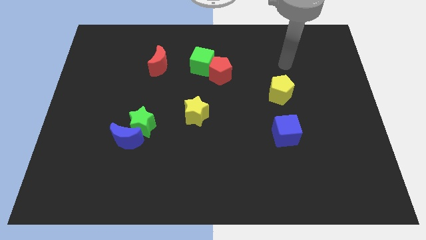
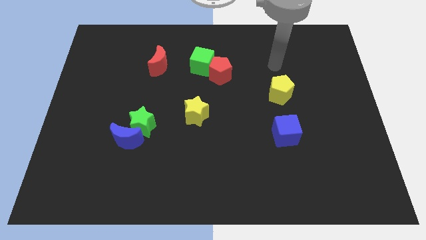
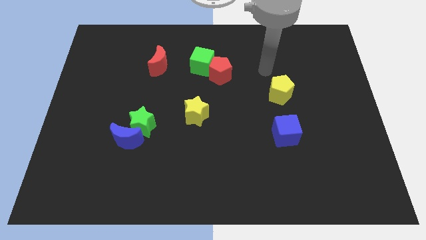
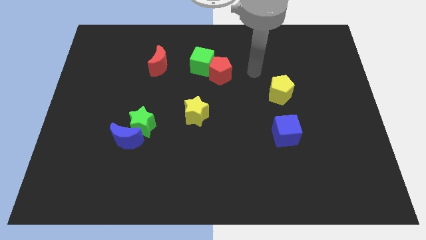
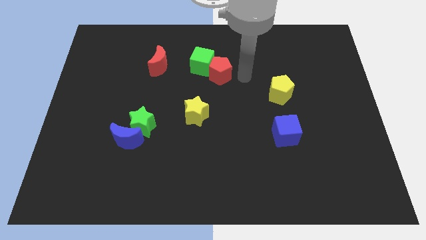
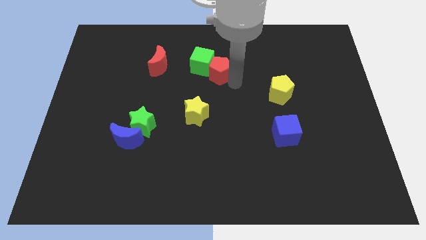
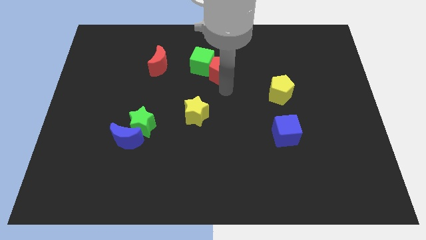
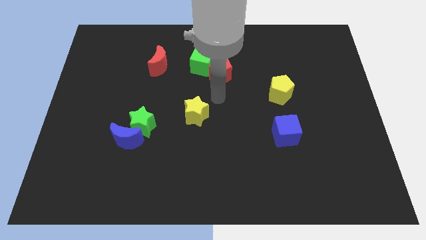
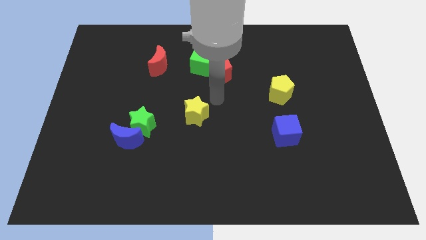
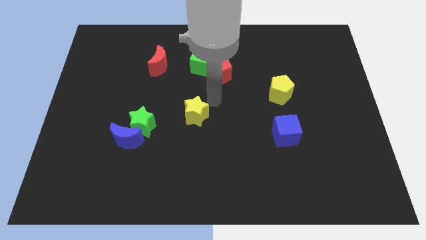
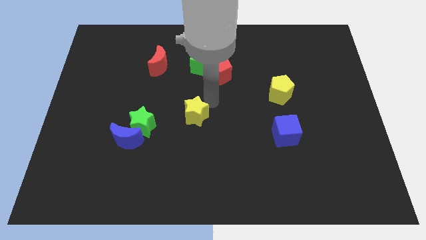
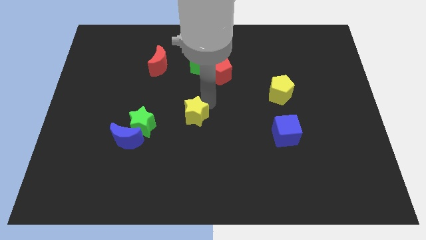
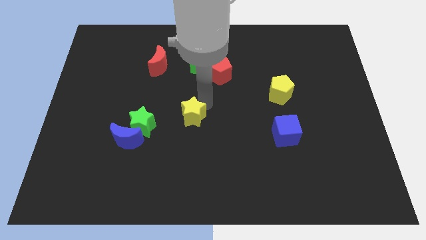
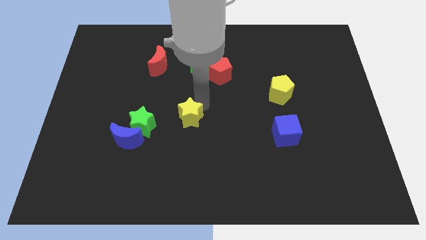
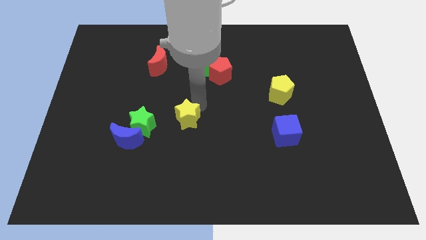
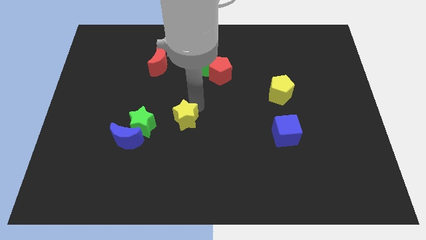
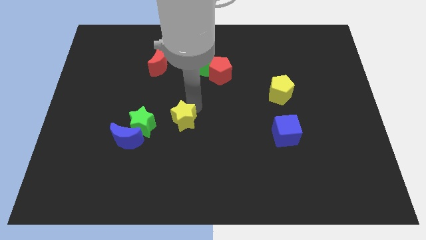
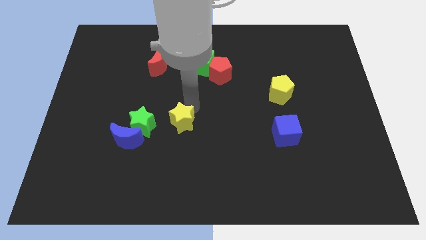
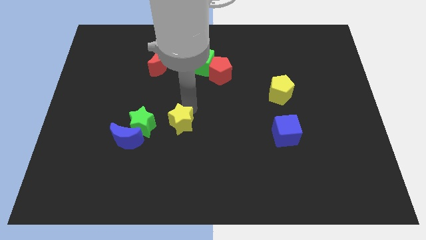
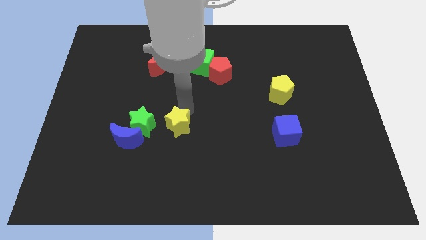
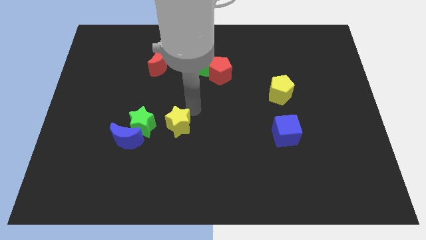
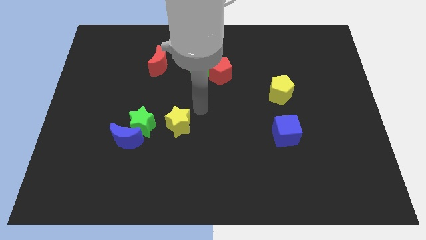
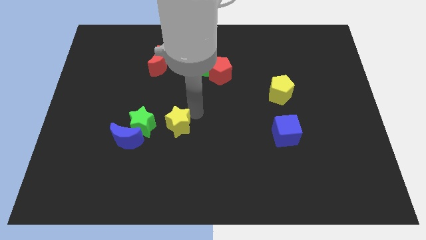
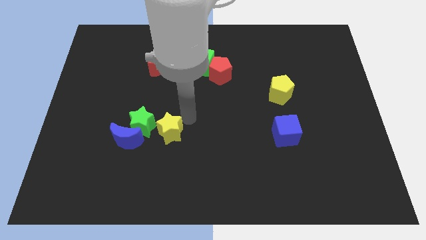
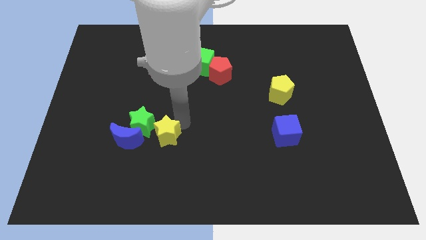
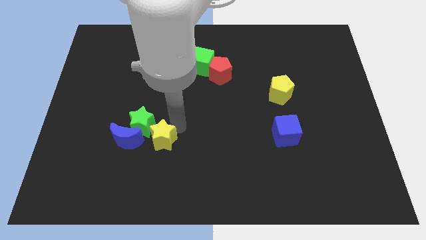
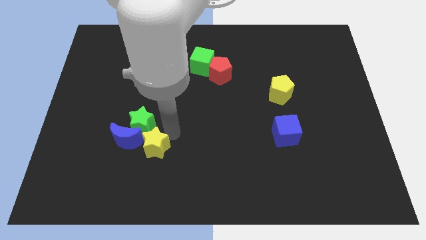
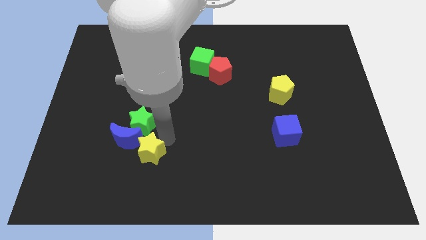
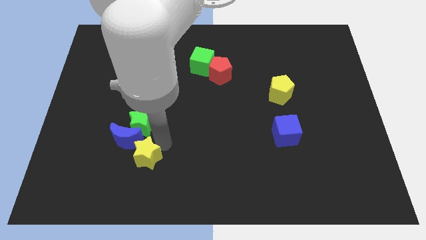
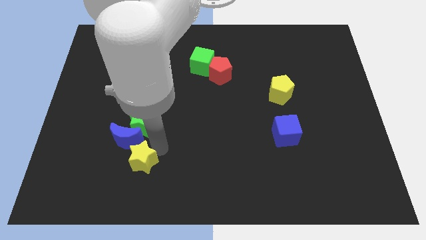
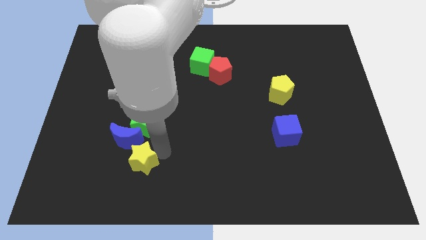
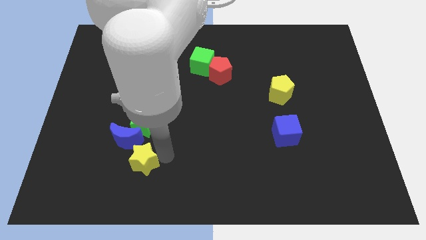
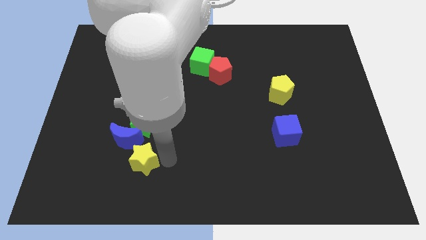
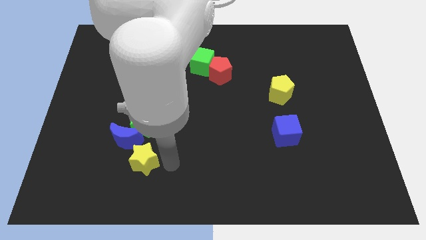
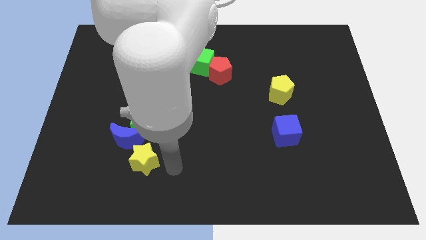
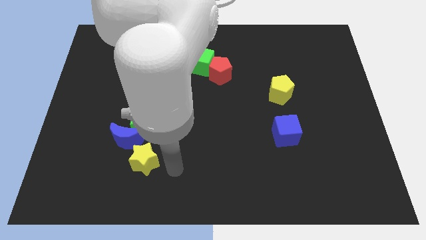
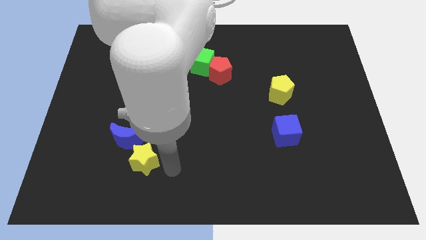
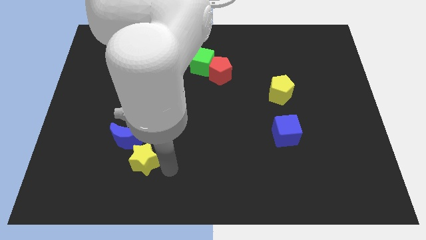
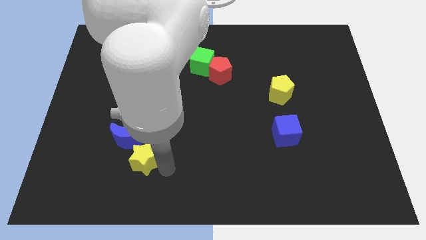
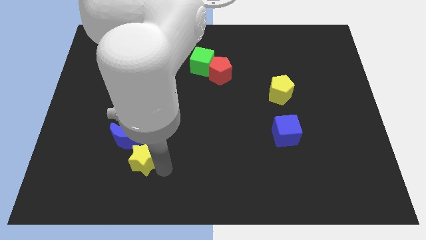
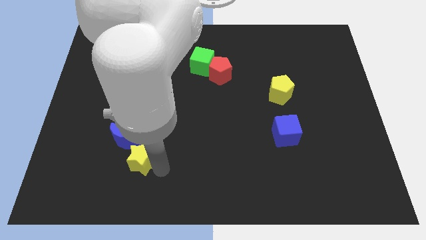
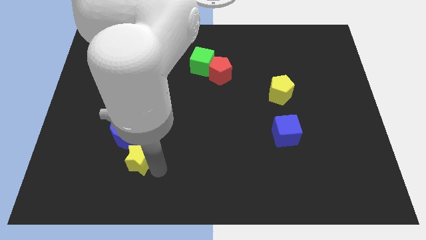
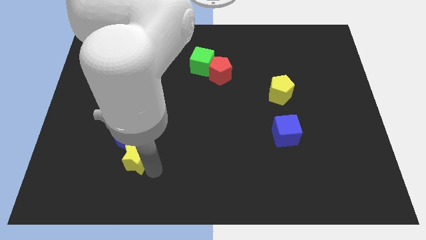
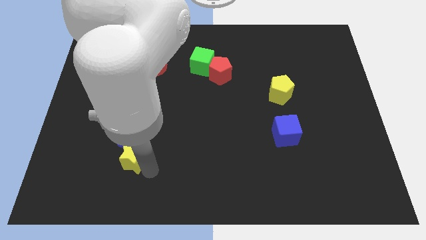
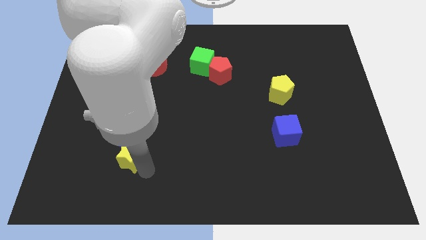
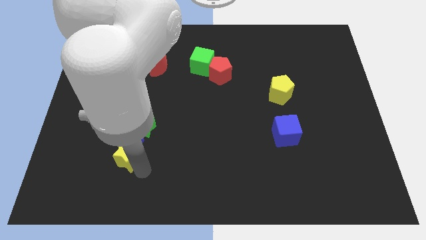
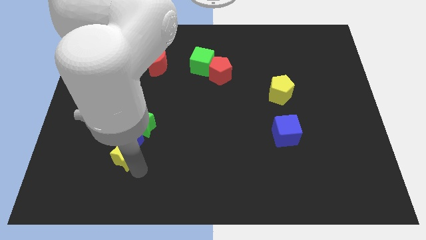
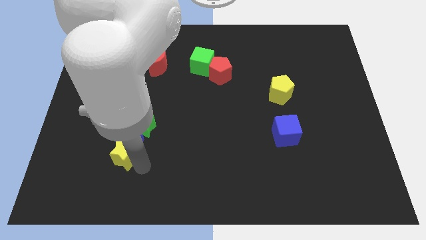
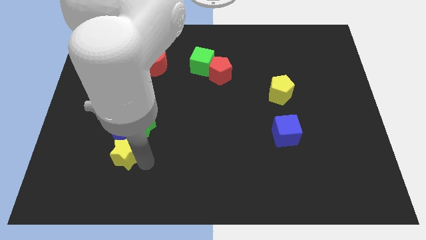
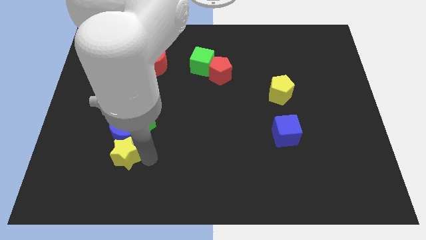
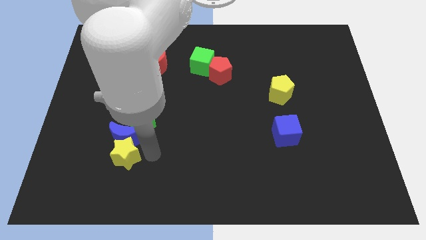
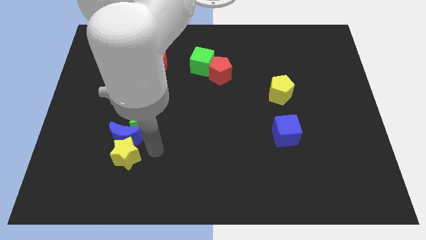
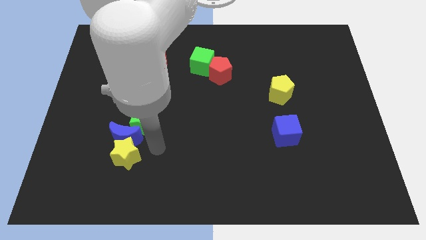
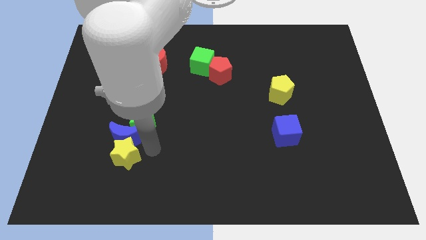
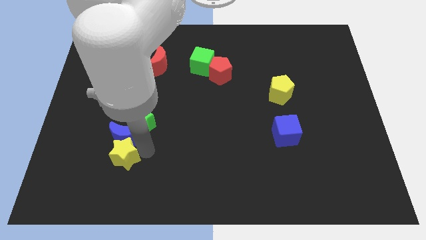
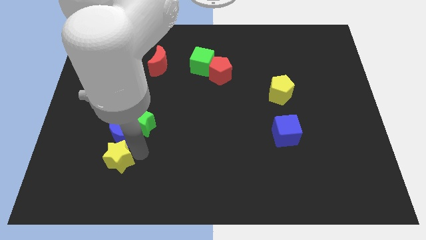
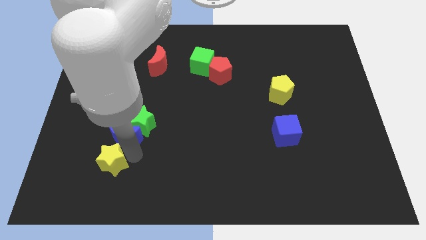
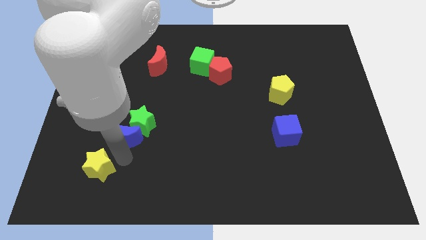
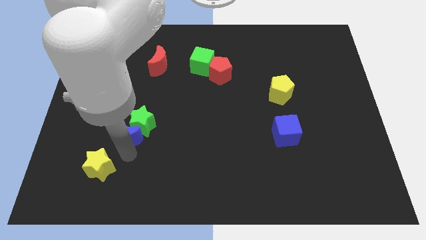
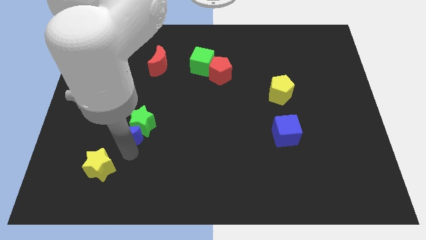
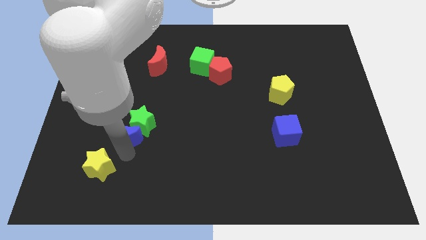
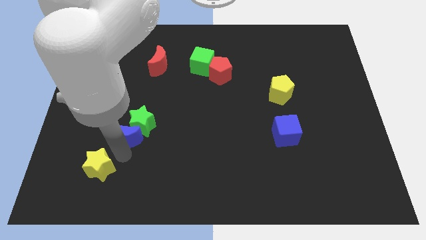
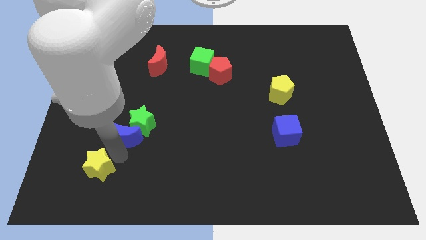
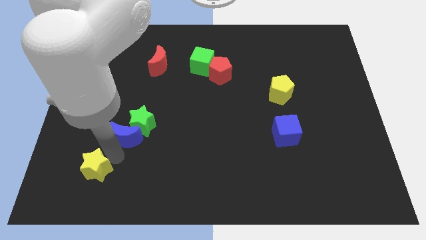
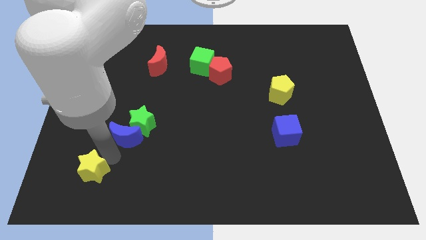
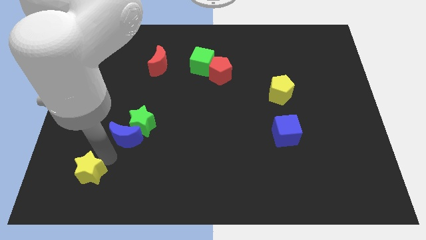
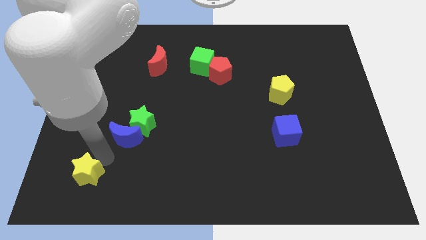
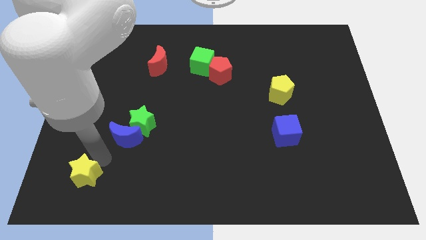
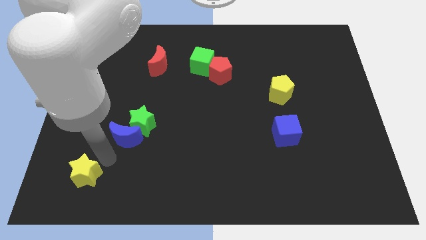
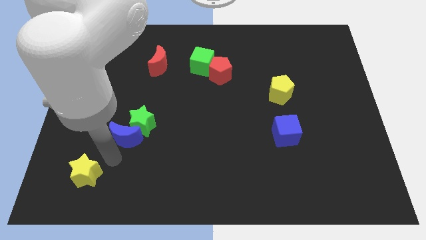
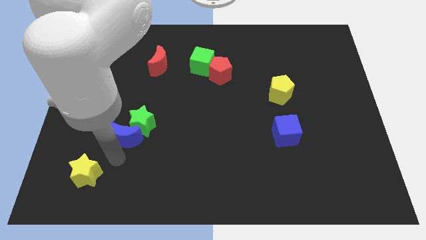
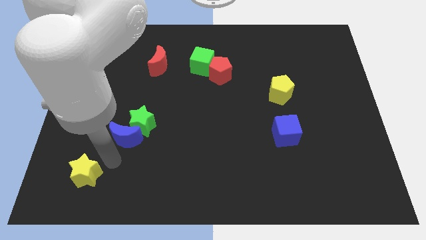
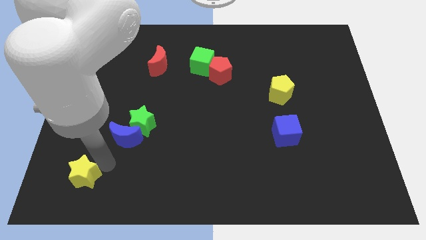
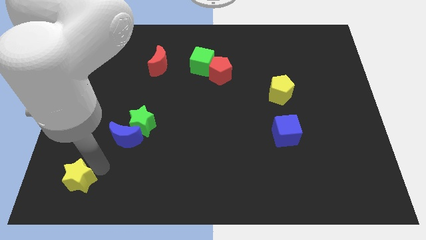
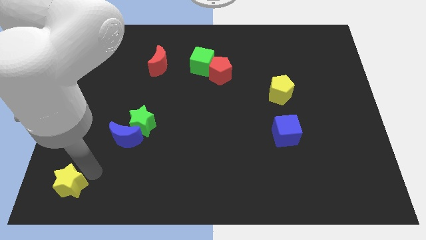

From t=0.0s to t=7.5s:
put the yellow star to the bottom left of the board
